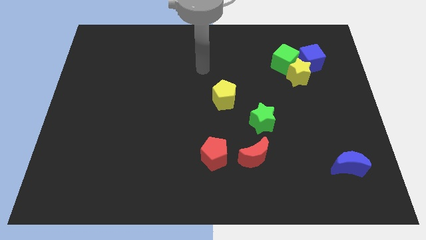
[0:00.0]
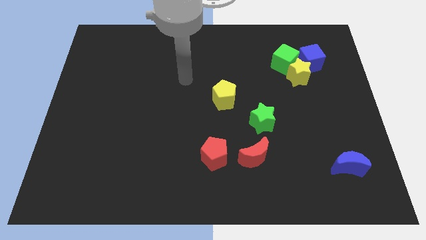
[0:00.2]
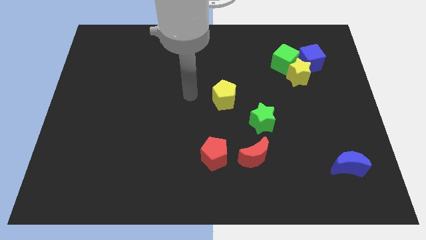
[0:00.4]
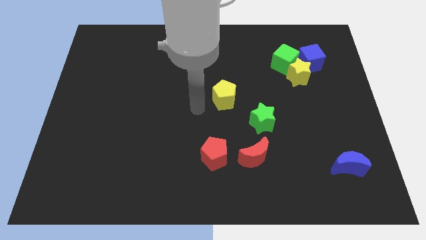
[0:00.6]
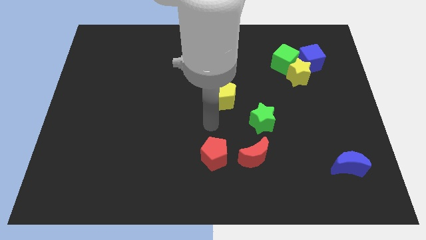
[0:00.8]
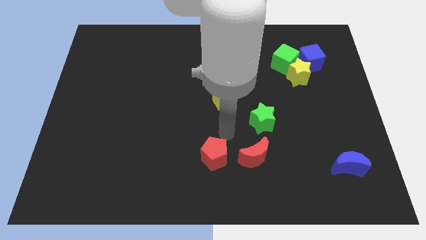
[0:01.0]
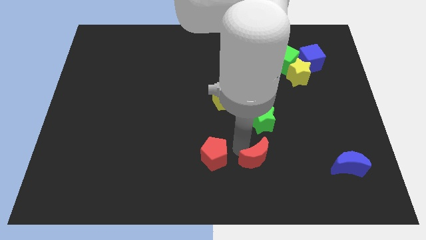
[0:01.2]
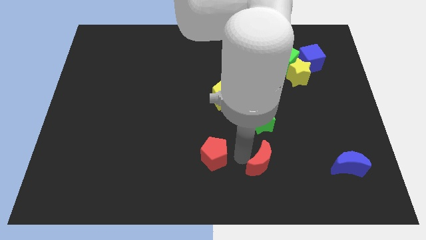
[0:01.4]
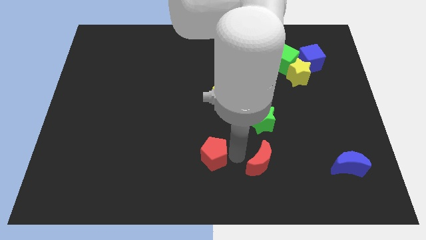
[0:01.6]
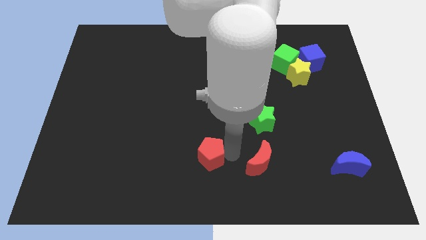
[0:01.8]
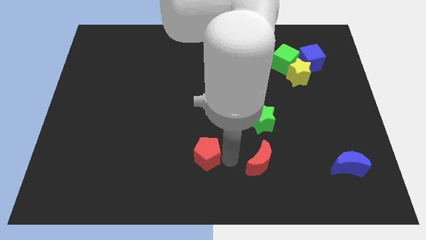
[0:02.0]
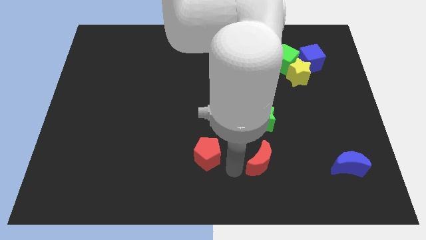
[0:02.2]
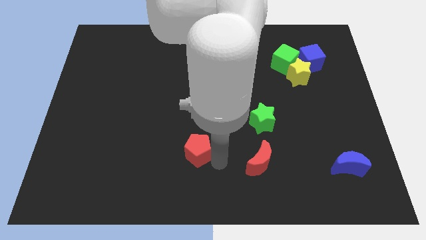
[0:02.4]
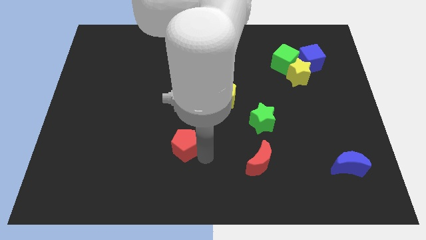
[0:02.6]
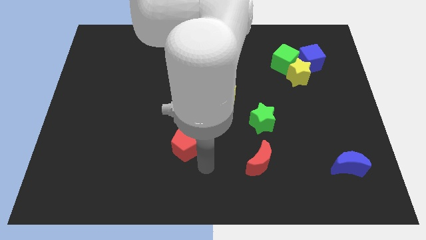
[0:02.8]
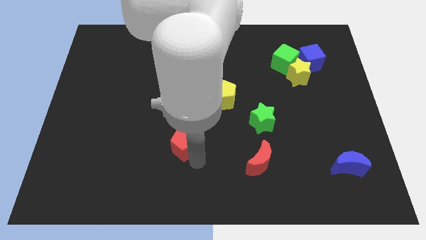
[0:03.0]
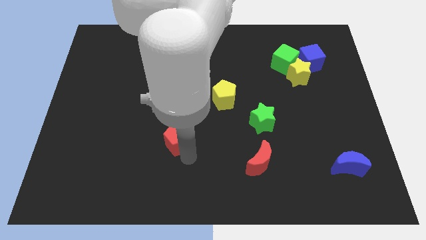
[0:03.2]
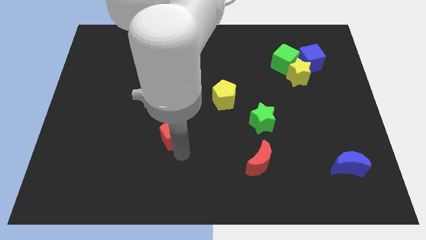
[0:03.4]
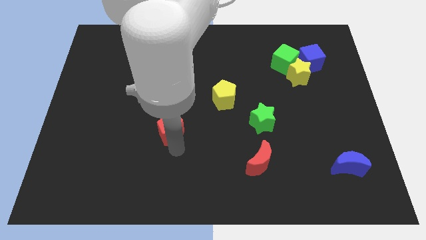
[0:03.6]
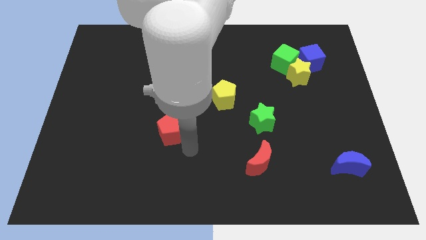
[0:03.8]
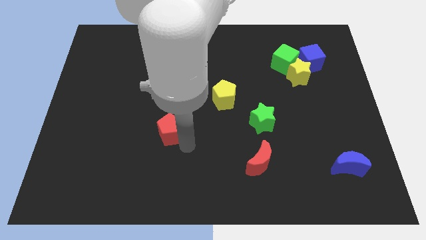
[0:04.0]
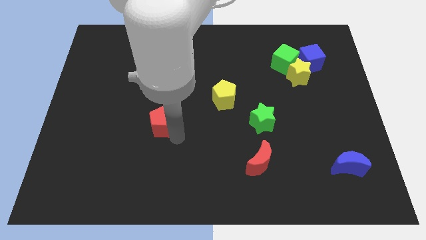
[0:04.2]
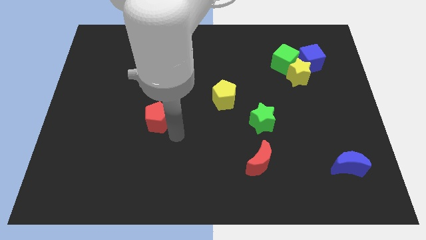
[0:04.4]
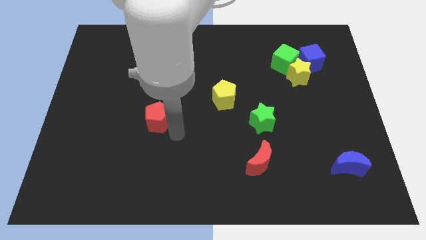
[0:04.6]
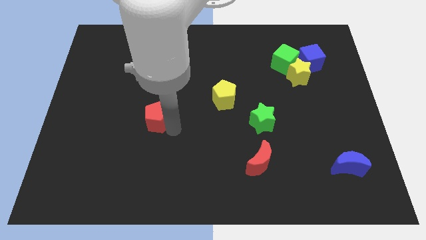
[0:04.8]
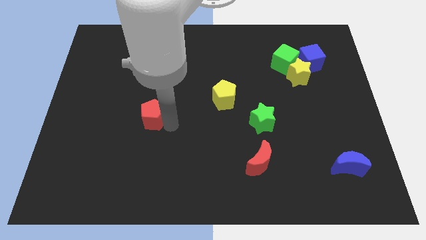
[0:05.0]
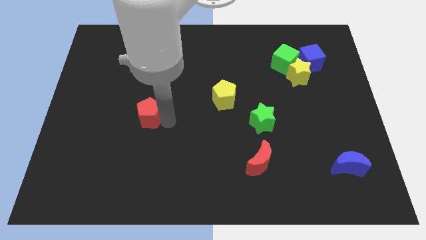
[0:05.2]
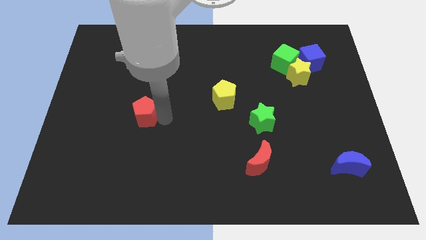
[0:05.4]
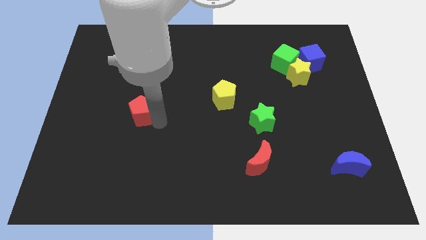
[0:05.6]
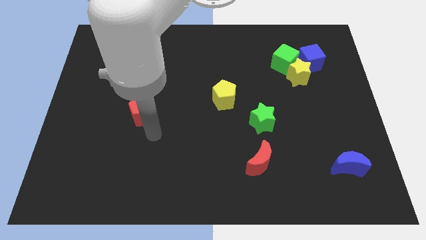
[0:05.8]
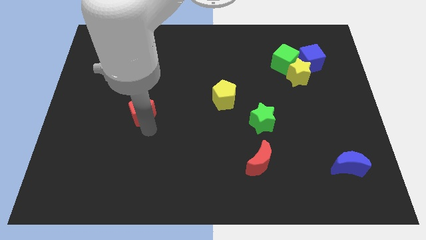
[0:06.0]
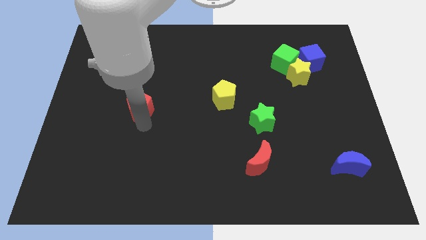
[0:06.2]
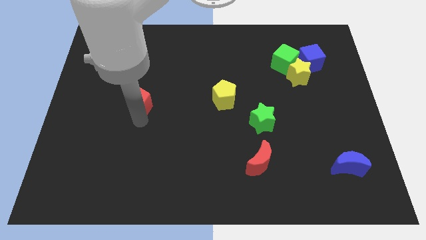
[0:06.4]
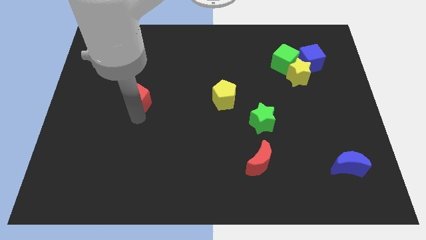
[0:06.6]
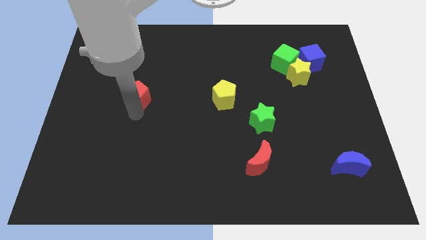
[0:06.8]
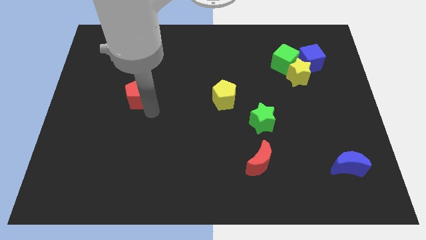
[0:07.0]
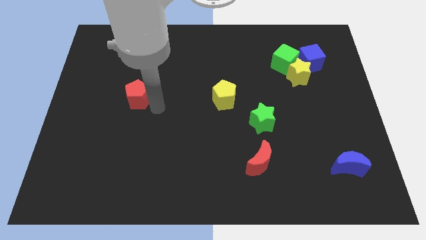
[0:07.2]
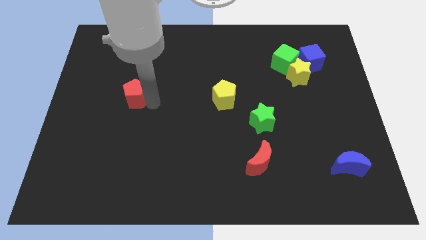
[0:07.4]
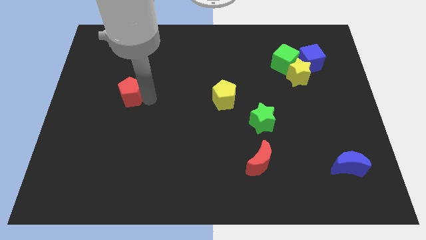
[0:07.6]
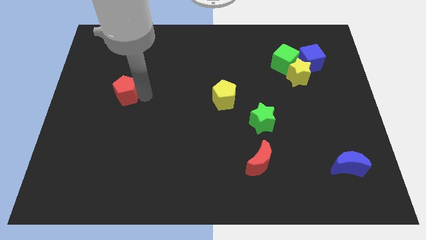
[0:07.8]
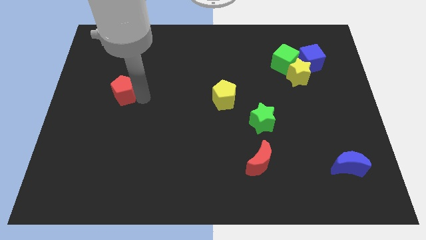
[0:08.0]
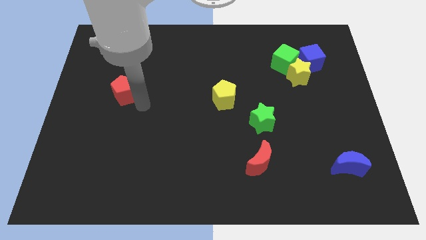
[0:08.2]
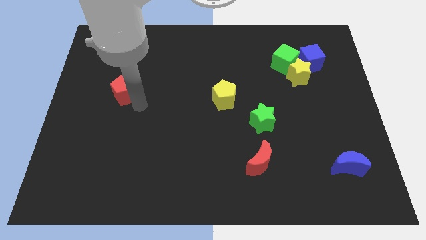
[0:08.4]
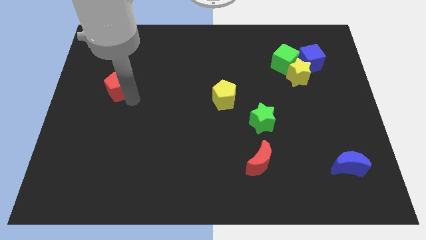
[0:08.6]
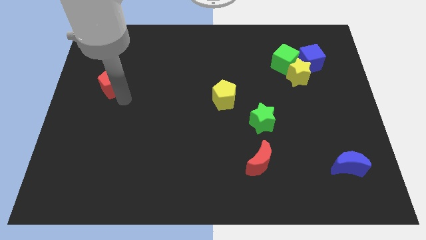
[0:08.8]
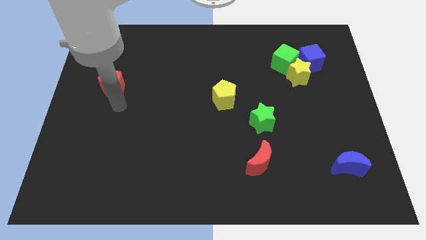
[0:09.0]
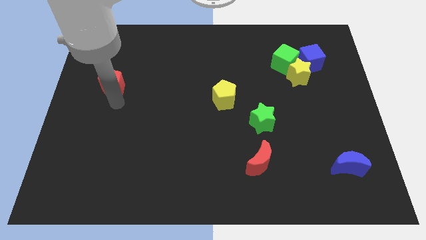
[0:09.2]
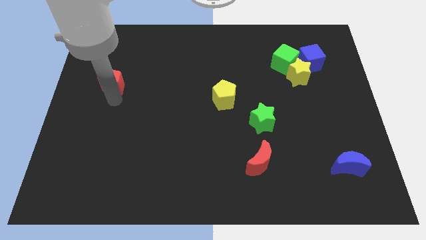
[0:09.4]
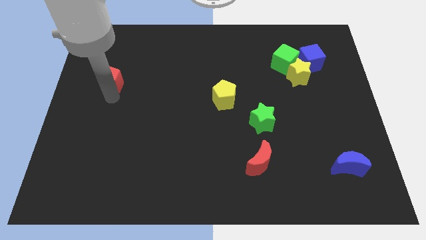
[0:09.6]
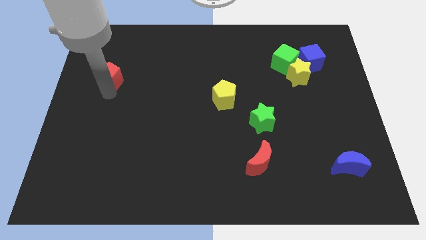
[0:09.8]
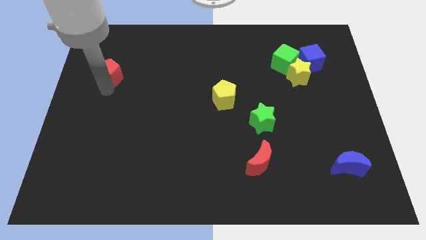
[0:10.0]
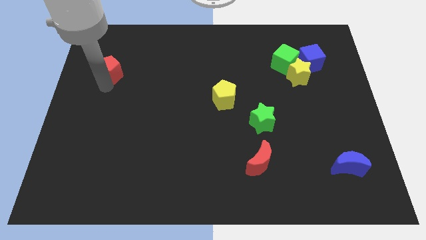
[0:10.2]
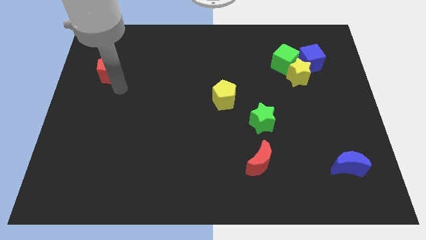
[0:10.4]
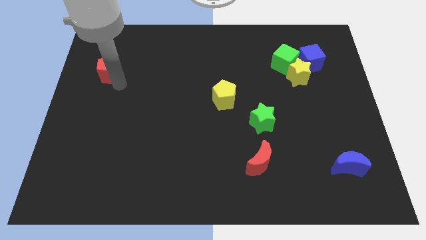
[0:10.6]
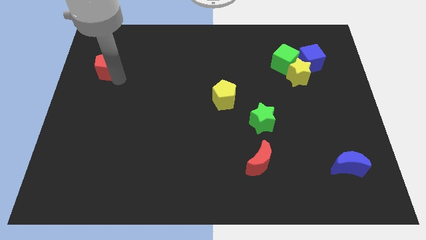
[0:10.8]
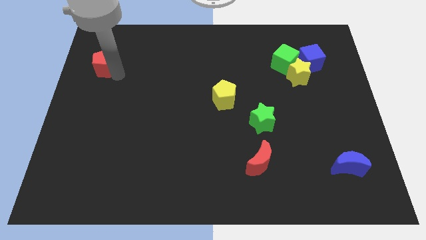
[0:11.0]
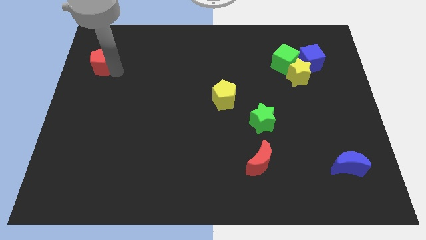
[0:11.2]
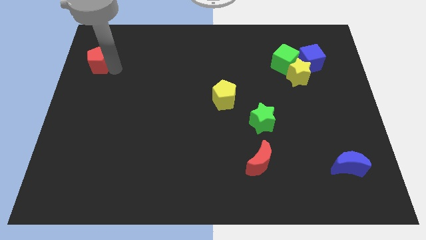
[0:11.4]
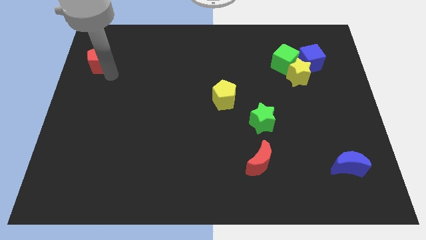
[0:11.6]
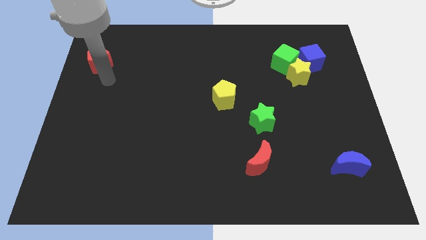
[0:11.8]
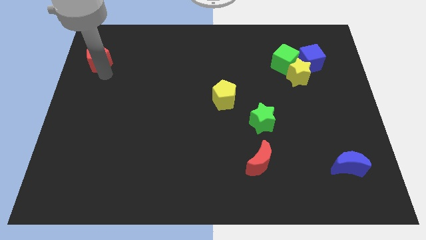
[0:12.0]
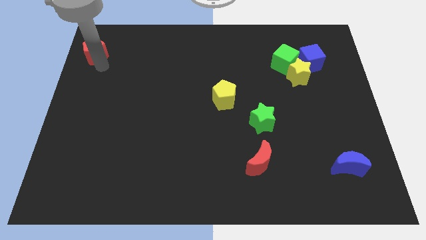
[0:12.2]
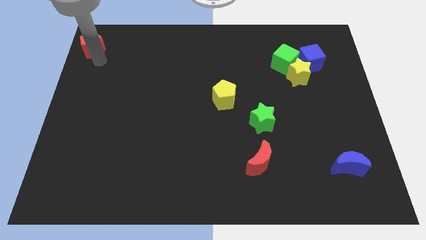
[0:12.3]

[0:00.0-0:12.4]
push the red pentagon to the upper left corner
